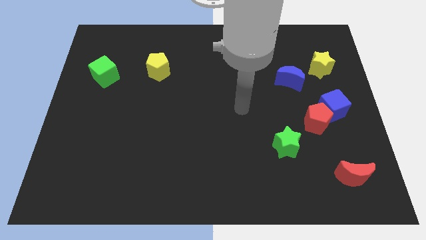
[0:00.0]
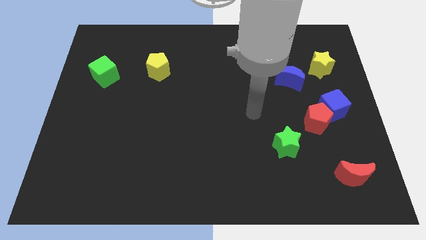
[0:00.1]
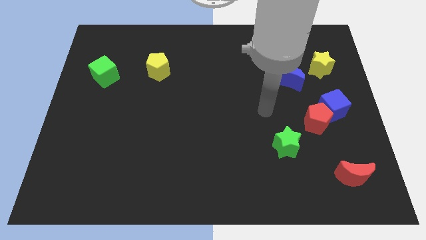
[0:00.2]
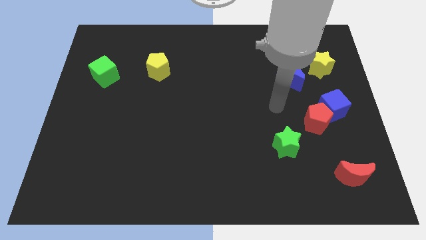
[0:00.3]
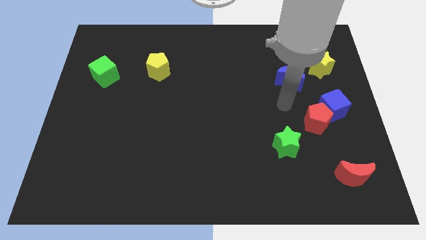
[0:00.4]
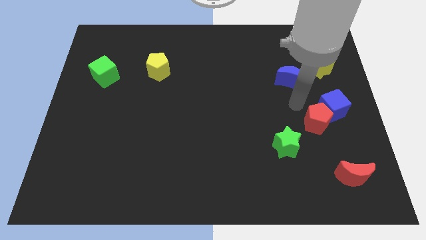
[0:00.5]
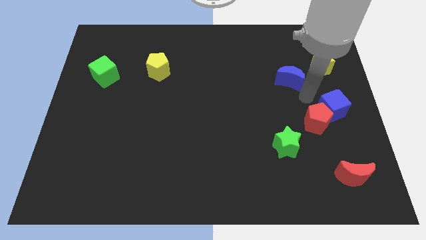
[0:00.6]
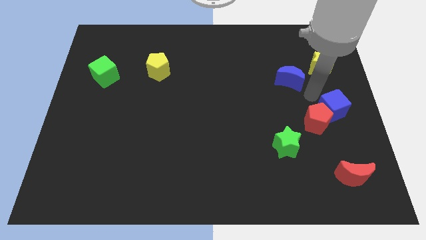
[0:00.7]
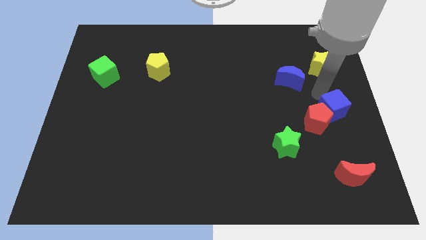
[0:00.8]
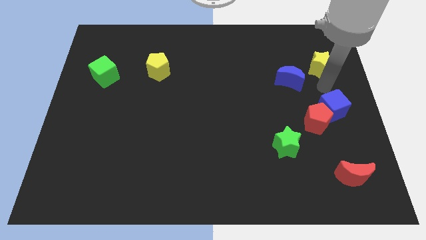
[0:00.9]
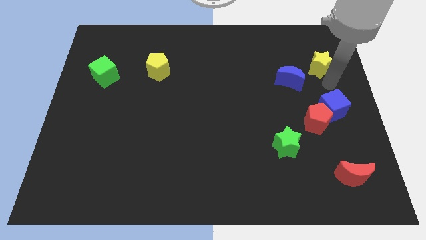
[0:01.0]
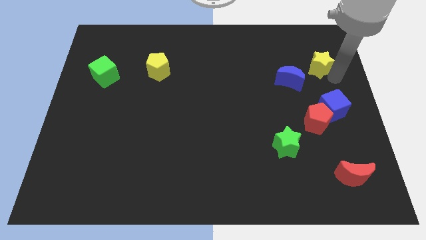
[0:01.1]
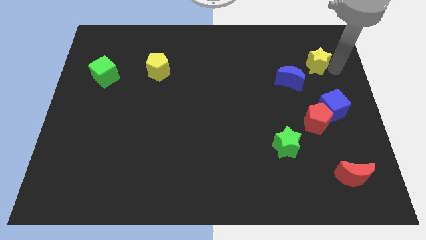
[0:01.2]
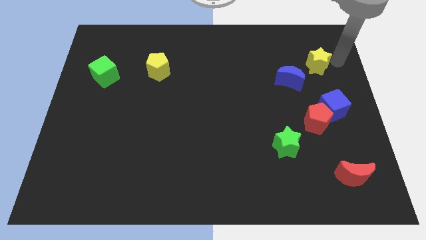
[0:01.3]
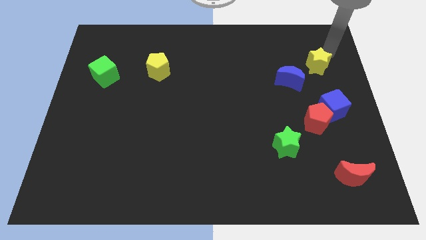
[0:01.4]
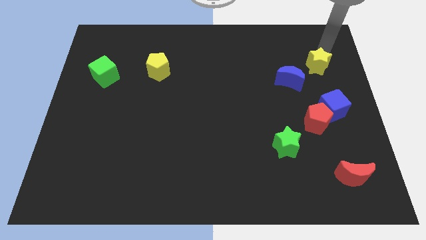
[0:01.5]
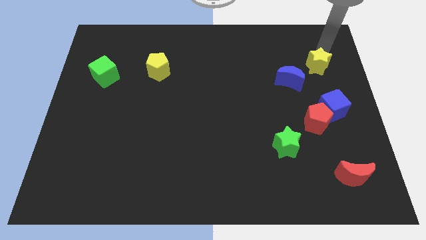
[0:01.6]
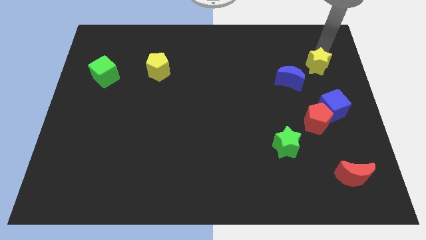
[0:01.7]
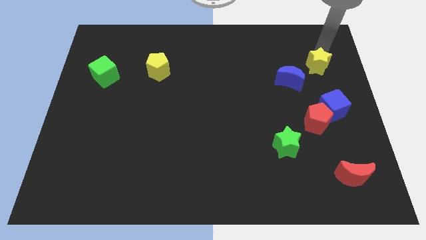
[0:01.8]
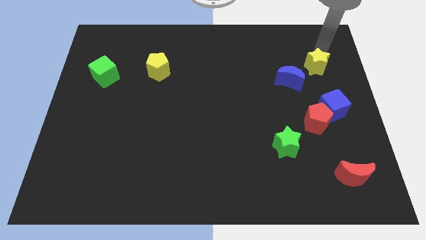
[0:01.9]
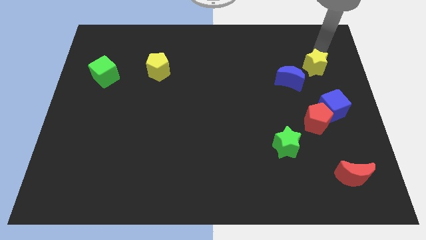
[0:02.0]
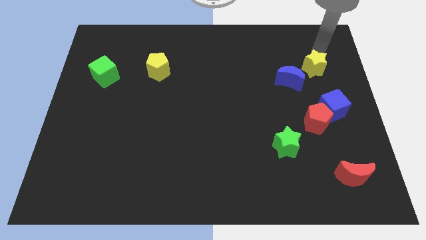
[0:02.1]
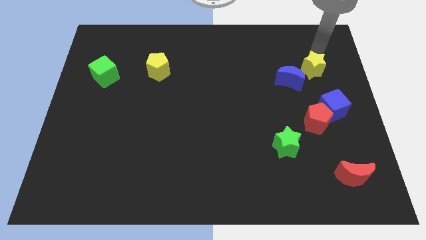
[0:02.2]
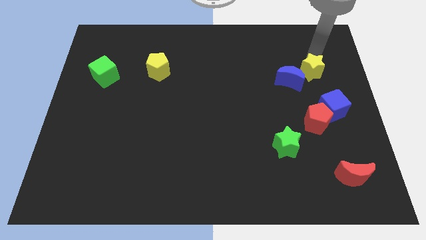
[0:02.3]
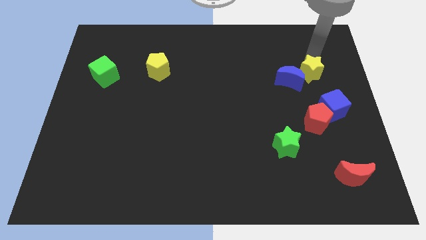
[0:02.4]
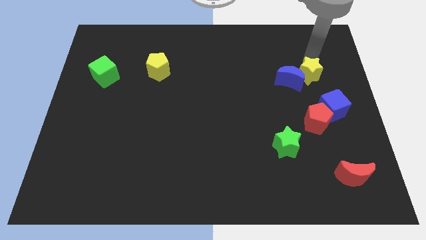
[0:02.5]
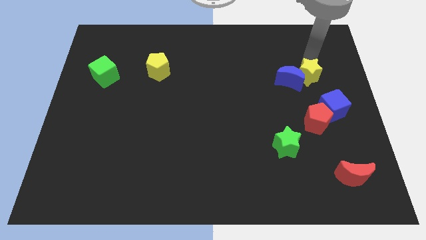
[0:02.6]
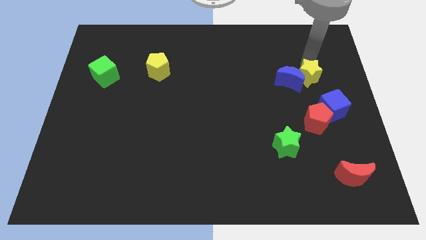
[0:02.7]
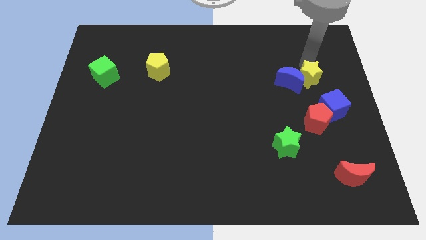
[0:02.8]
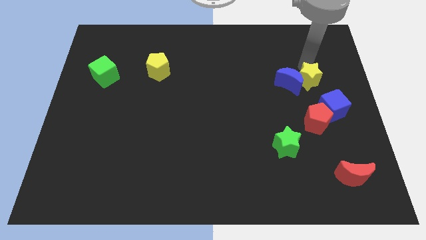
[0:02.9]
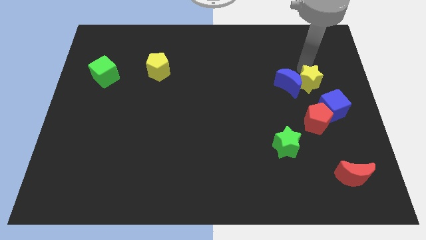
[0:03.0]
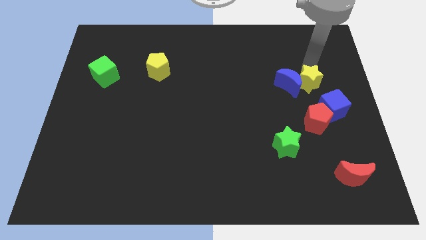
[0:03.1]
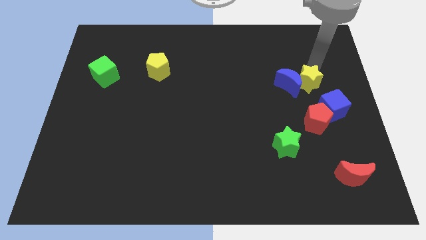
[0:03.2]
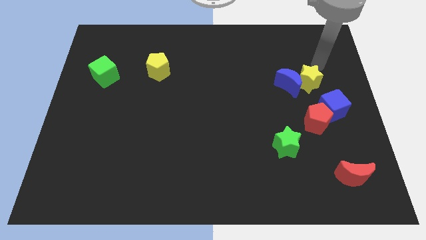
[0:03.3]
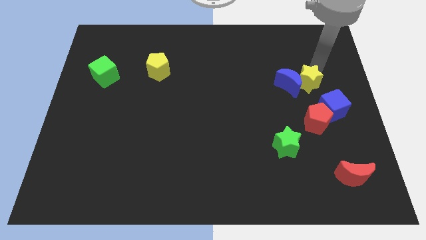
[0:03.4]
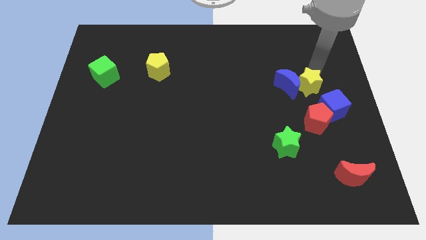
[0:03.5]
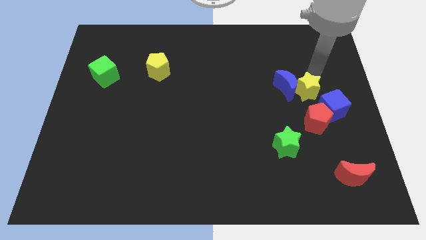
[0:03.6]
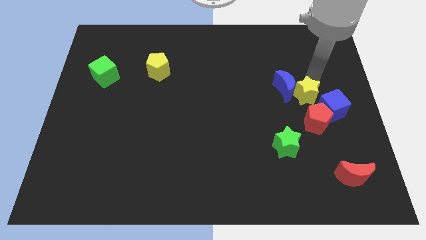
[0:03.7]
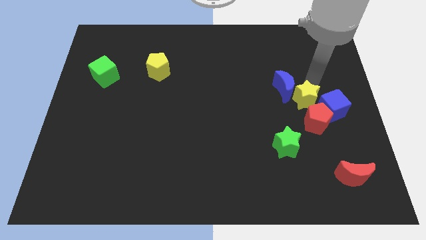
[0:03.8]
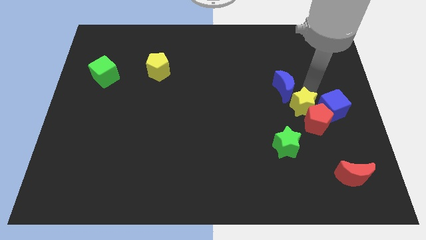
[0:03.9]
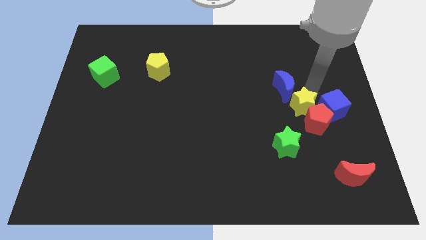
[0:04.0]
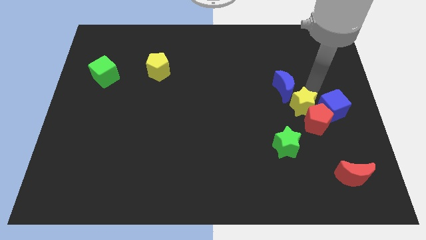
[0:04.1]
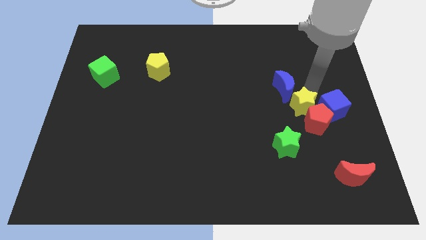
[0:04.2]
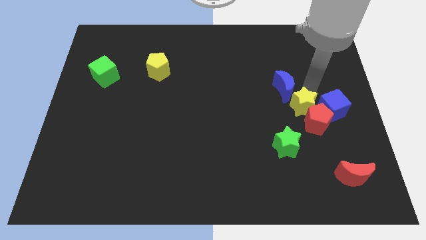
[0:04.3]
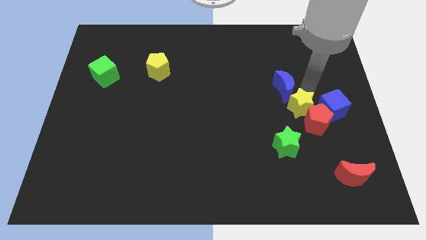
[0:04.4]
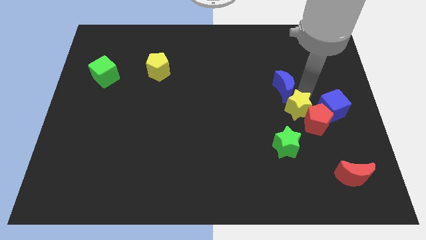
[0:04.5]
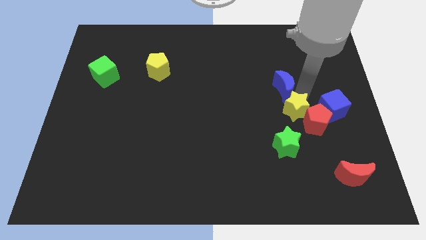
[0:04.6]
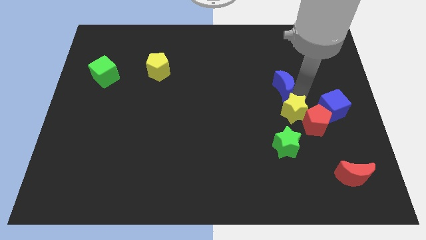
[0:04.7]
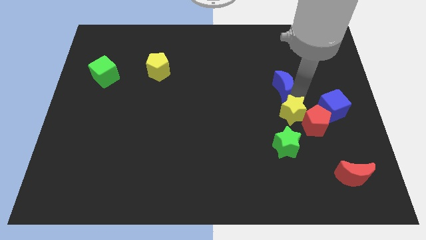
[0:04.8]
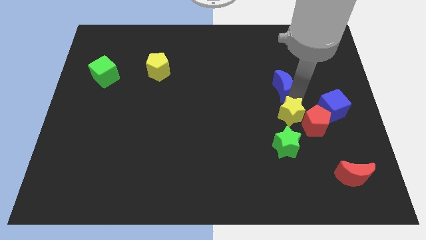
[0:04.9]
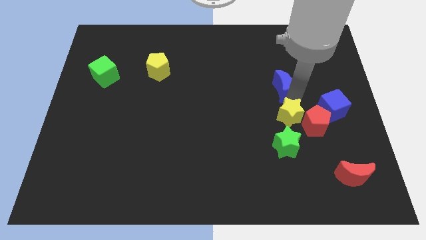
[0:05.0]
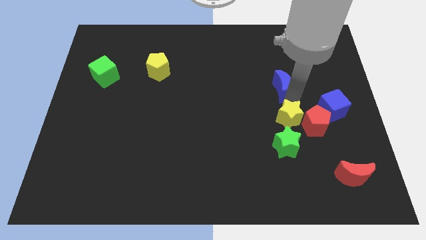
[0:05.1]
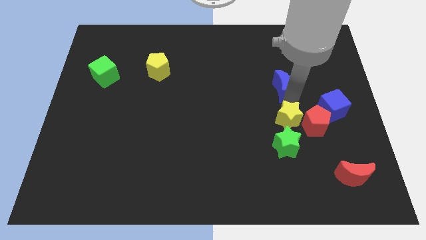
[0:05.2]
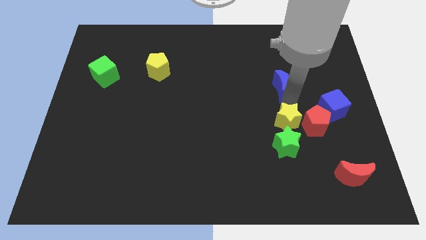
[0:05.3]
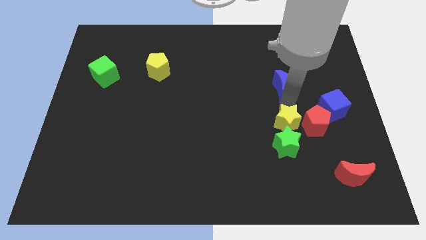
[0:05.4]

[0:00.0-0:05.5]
put the yellow star towards the green star

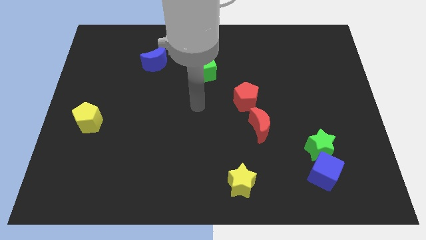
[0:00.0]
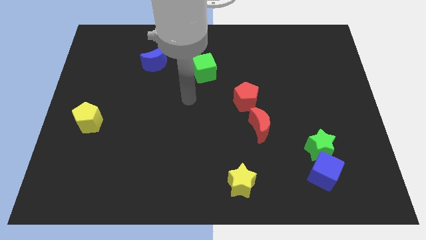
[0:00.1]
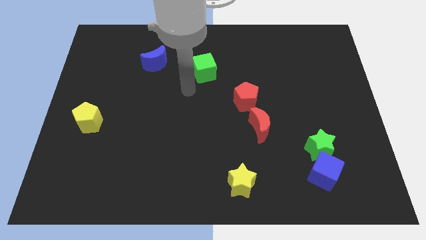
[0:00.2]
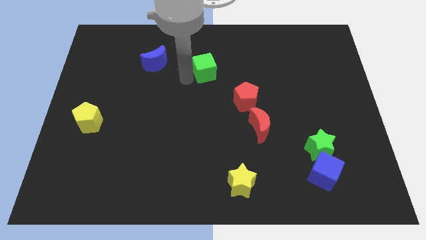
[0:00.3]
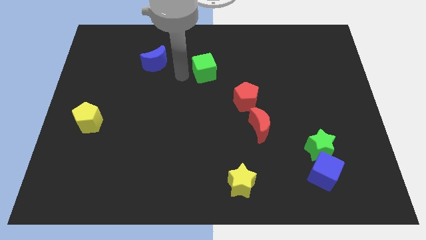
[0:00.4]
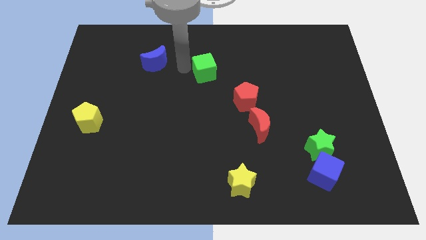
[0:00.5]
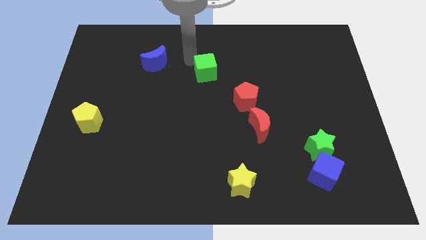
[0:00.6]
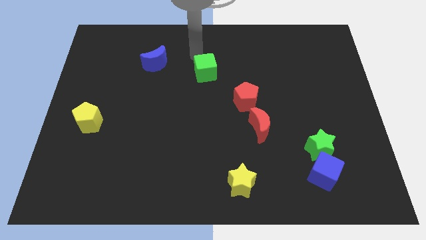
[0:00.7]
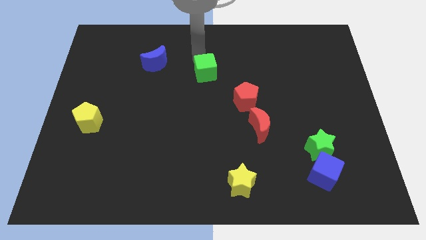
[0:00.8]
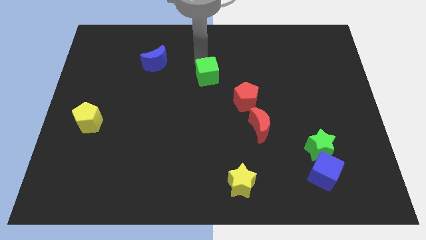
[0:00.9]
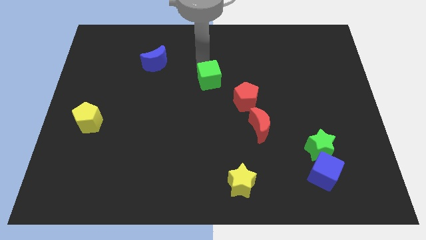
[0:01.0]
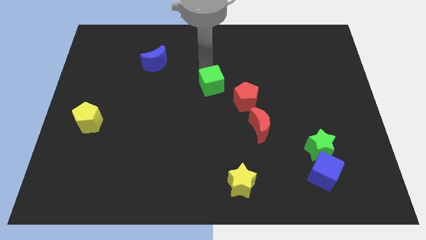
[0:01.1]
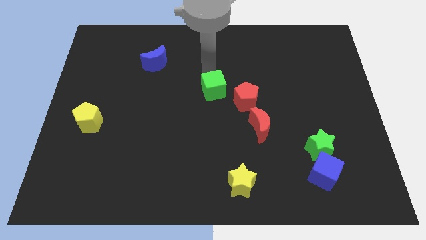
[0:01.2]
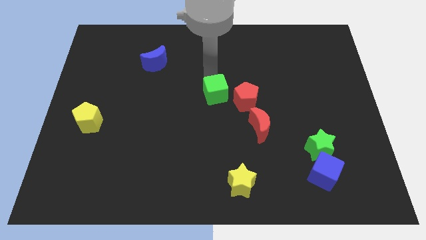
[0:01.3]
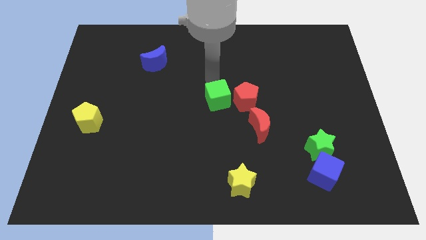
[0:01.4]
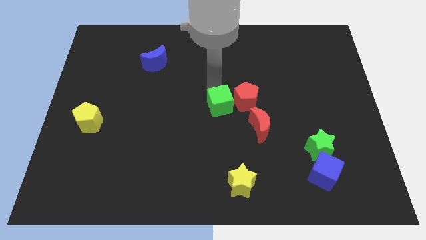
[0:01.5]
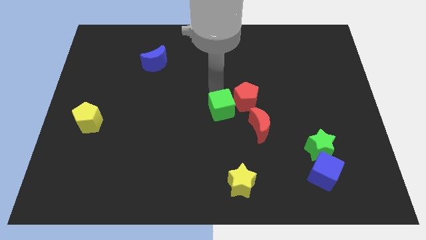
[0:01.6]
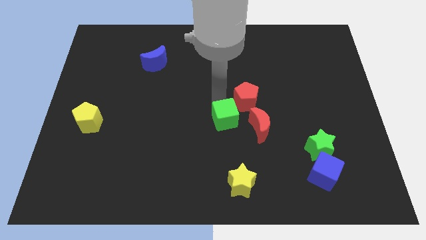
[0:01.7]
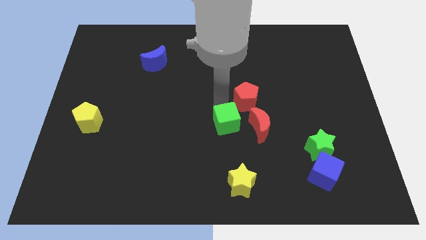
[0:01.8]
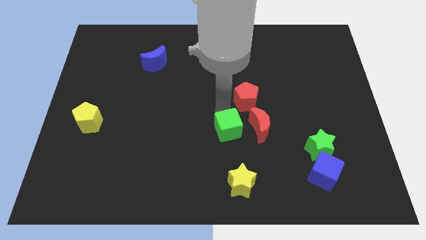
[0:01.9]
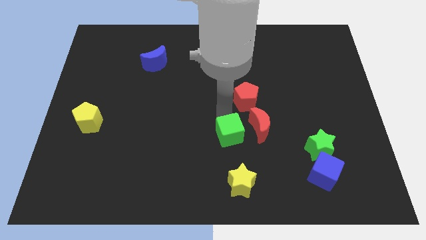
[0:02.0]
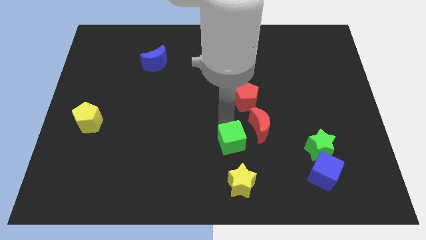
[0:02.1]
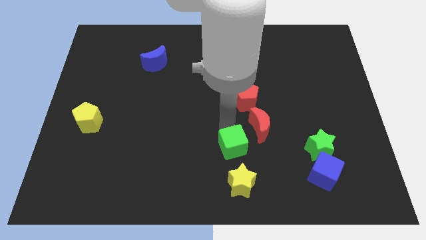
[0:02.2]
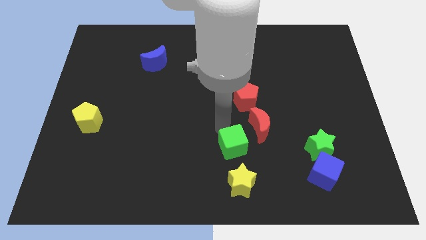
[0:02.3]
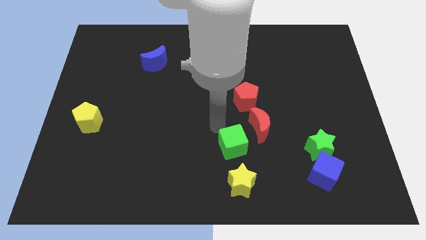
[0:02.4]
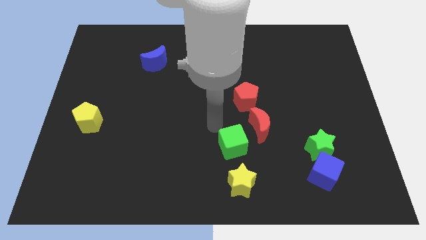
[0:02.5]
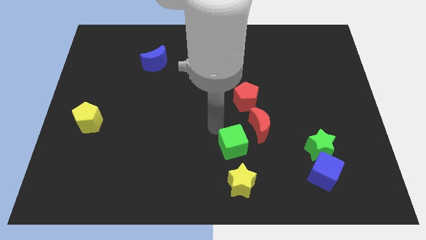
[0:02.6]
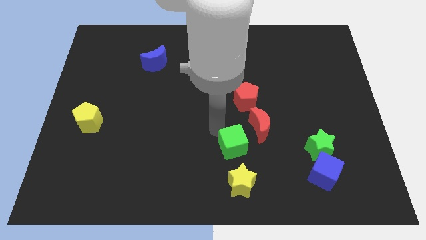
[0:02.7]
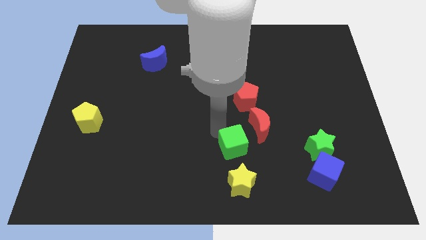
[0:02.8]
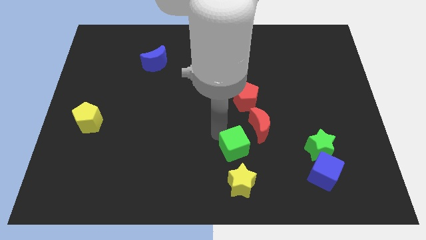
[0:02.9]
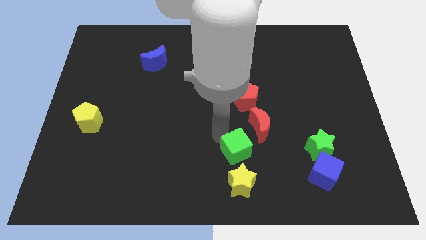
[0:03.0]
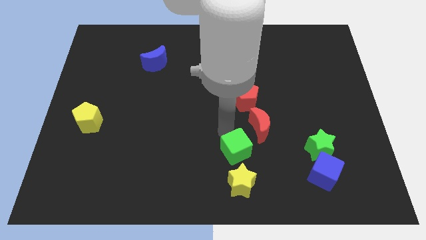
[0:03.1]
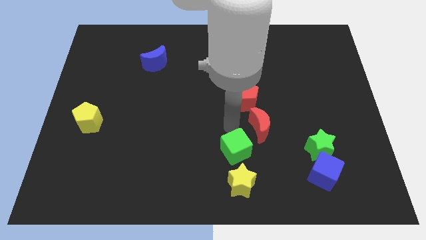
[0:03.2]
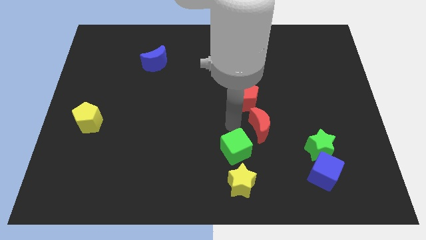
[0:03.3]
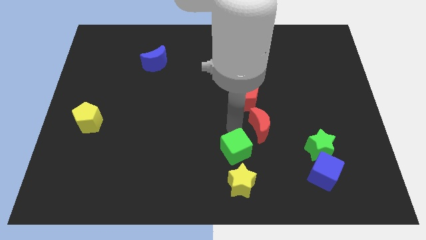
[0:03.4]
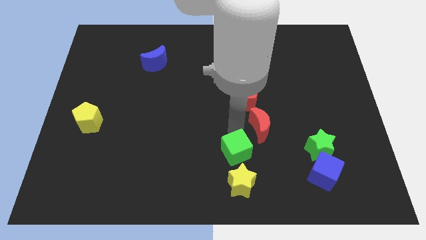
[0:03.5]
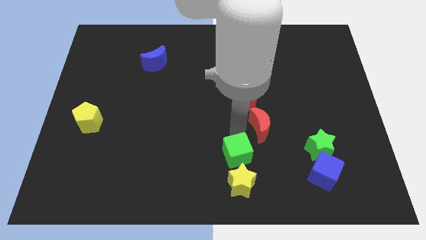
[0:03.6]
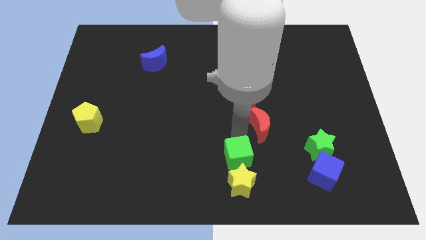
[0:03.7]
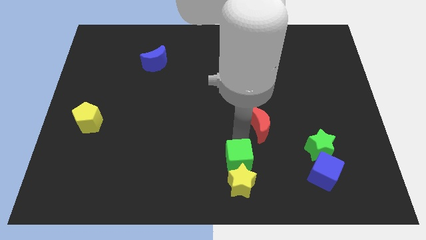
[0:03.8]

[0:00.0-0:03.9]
push the green cube to the yellow star
